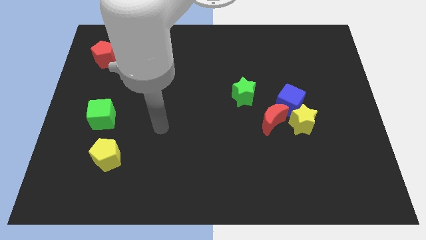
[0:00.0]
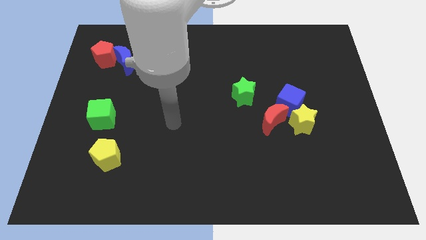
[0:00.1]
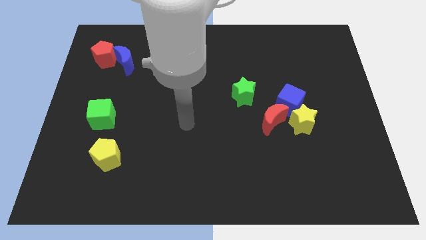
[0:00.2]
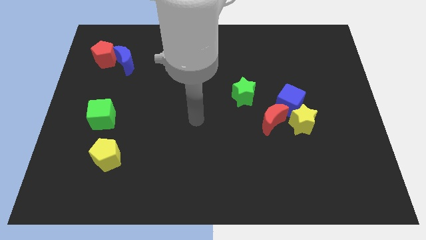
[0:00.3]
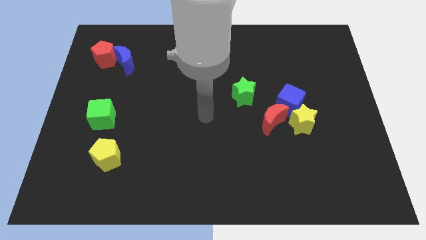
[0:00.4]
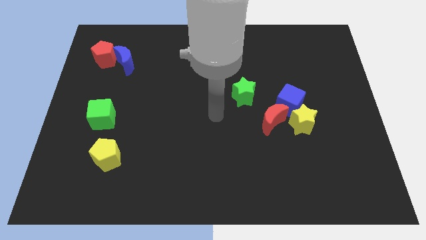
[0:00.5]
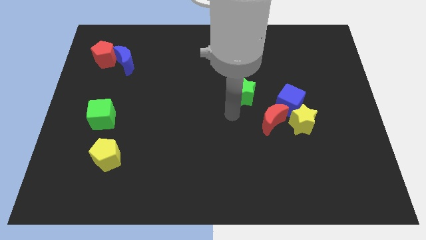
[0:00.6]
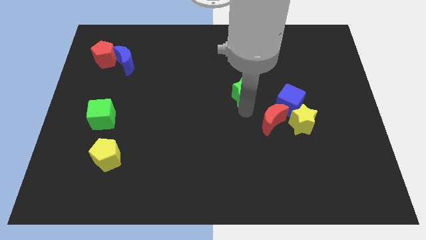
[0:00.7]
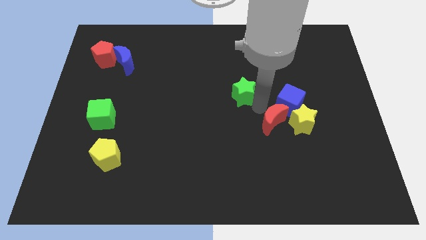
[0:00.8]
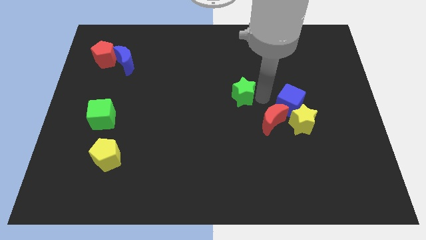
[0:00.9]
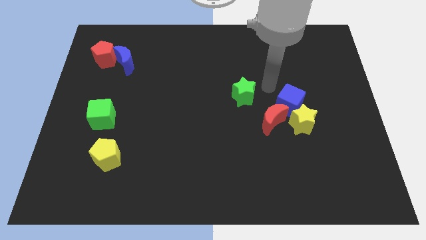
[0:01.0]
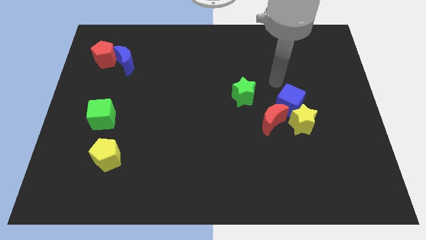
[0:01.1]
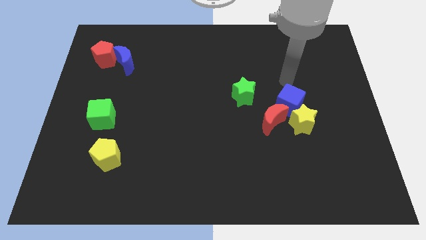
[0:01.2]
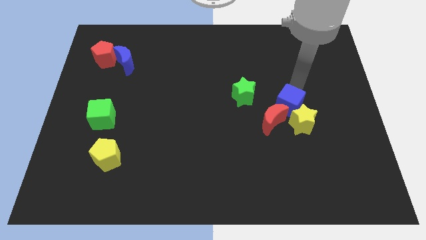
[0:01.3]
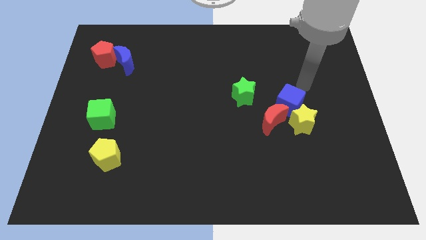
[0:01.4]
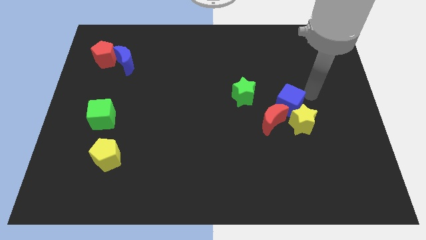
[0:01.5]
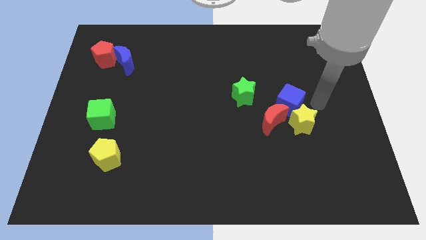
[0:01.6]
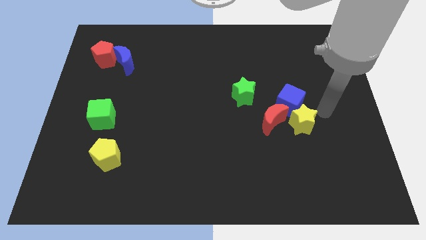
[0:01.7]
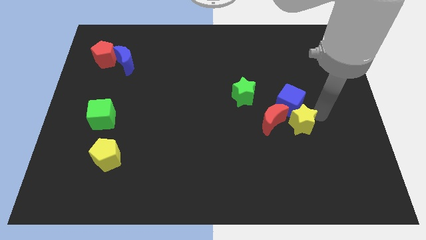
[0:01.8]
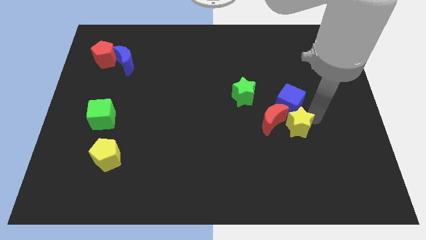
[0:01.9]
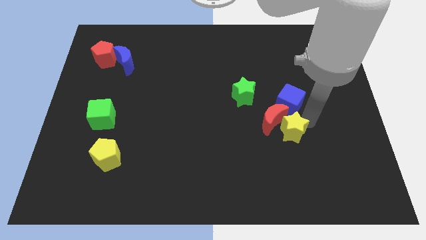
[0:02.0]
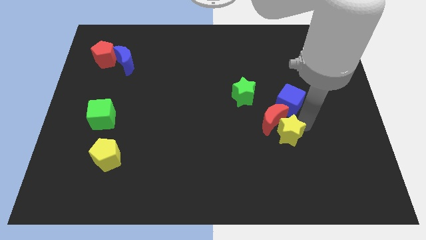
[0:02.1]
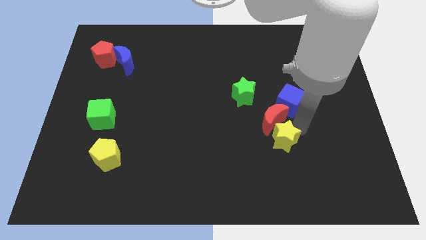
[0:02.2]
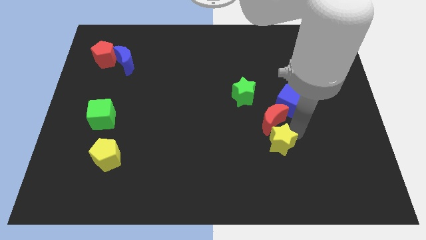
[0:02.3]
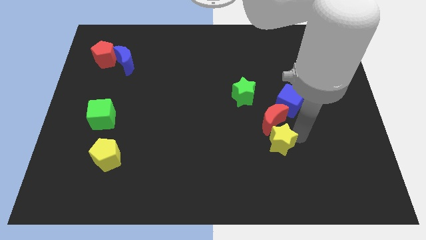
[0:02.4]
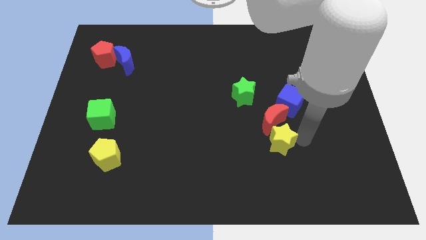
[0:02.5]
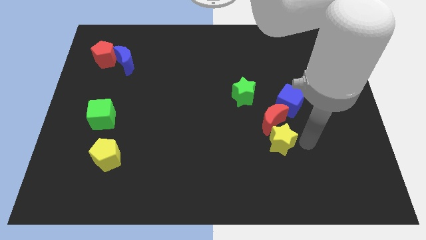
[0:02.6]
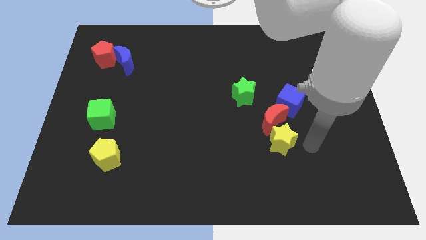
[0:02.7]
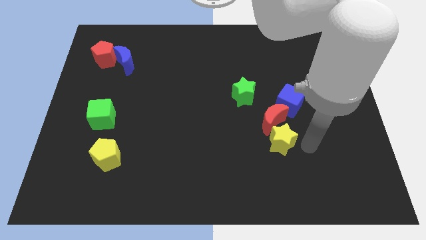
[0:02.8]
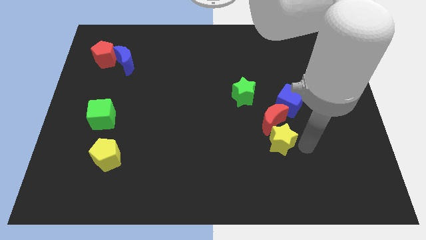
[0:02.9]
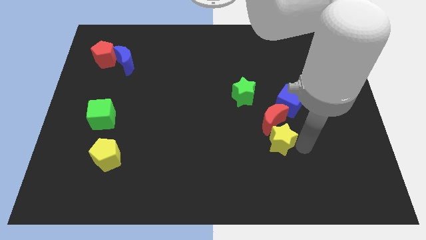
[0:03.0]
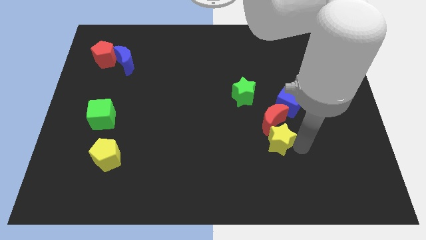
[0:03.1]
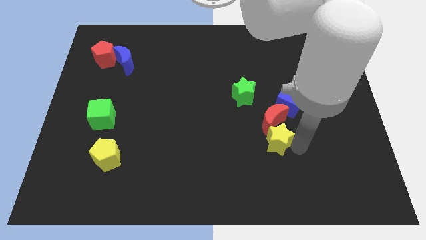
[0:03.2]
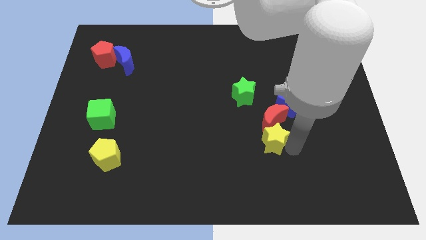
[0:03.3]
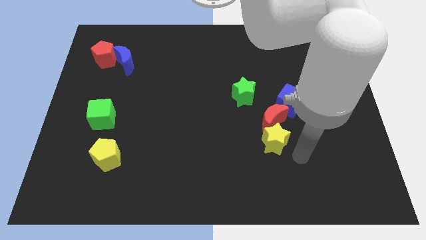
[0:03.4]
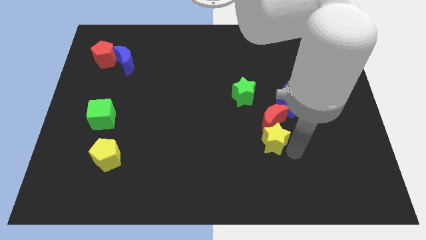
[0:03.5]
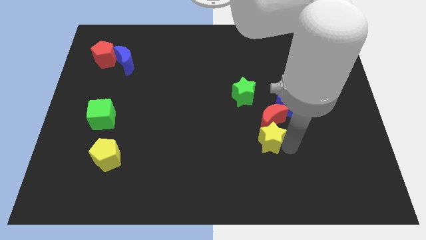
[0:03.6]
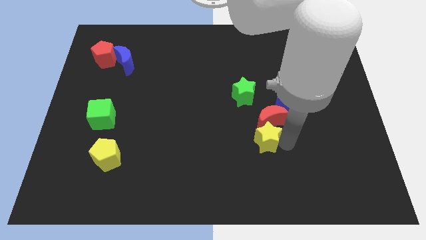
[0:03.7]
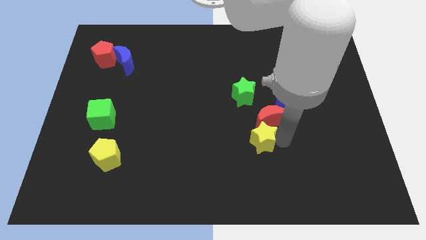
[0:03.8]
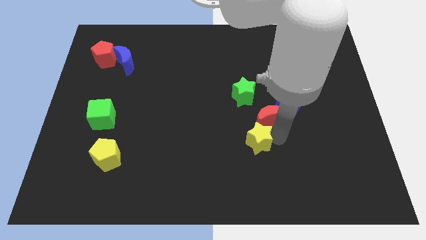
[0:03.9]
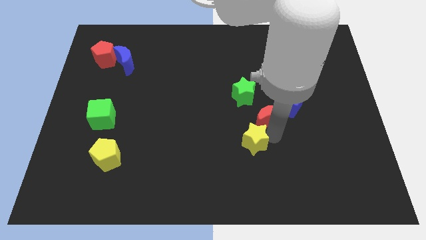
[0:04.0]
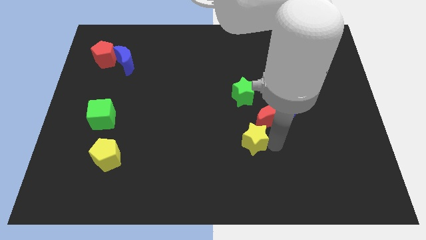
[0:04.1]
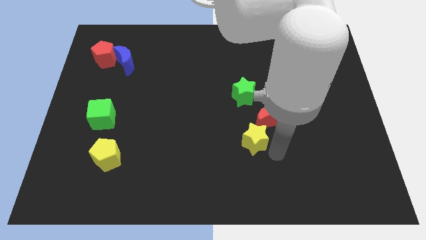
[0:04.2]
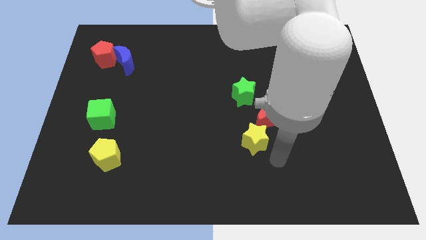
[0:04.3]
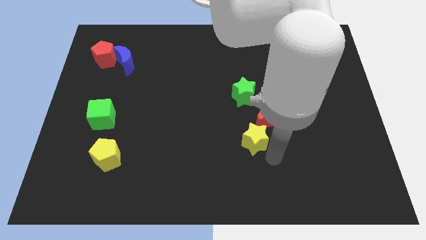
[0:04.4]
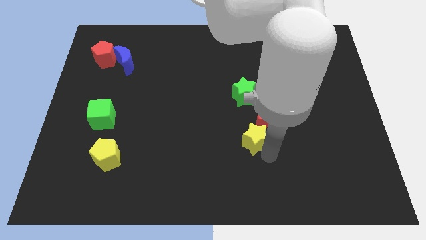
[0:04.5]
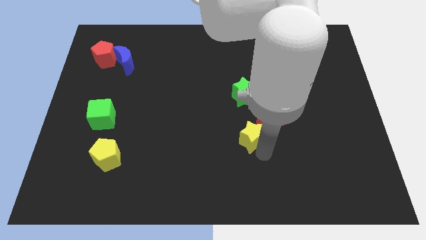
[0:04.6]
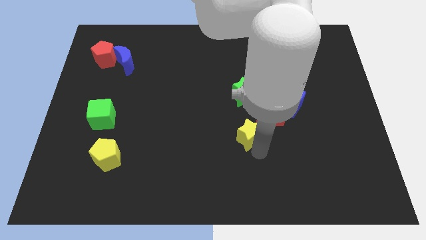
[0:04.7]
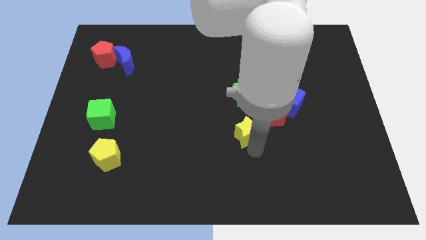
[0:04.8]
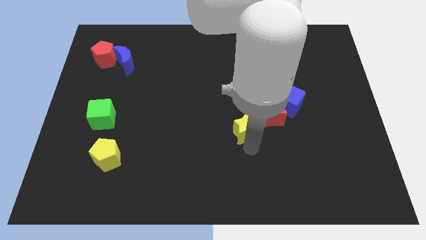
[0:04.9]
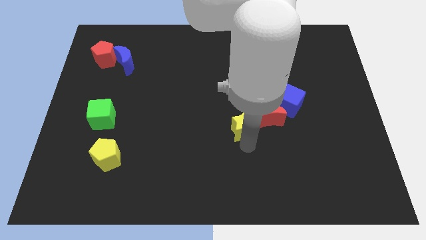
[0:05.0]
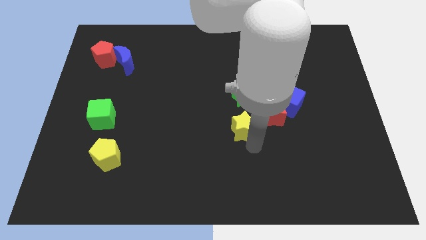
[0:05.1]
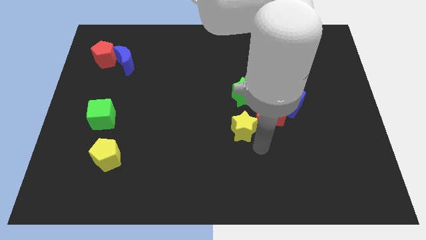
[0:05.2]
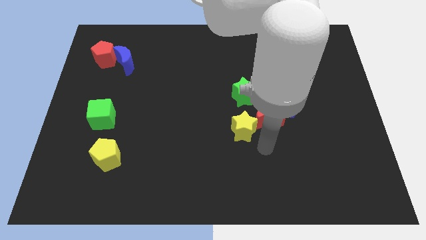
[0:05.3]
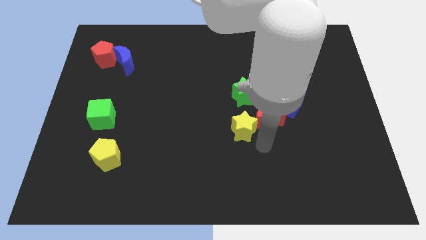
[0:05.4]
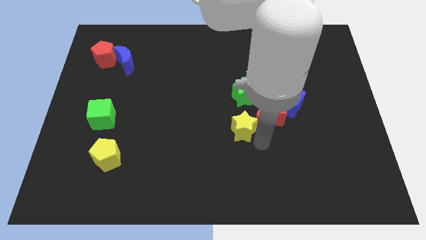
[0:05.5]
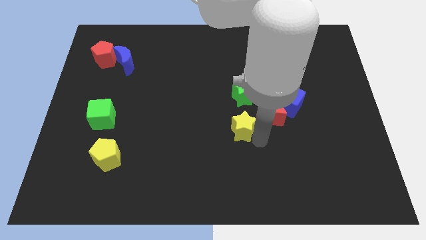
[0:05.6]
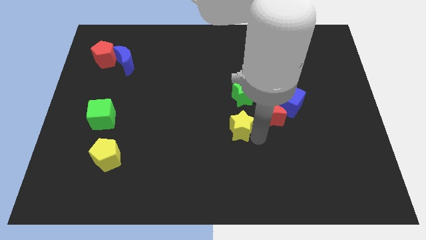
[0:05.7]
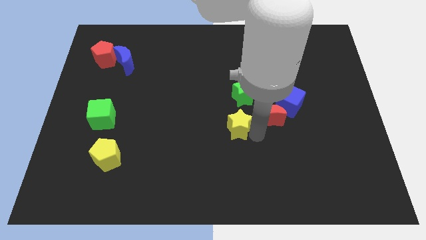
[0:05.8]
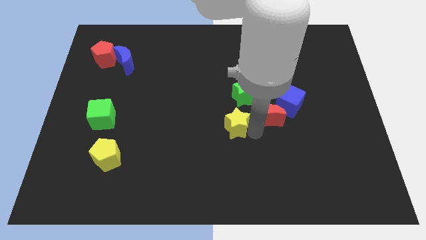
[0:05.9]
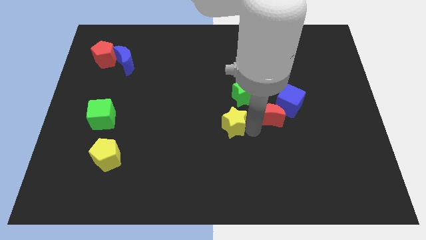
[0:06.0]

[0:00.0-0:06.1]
slide the yellow star diagonally down and to the left of the green star
